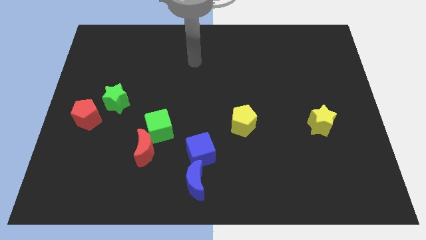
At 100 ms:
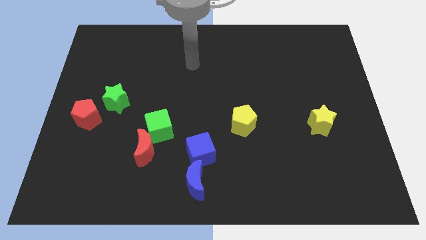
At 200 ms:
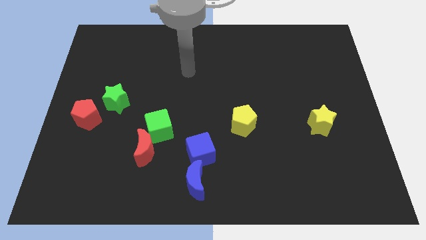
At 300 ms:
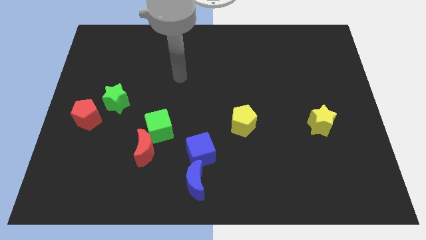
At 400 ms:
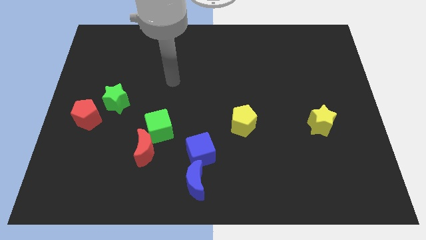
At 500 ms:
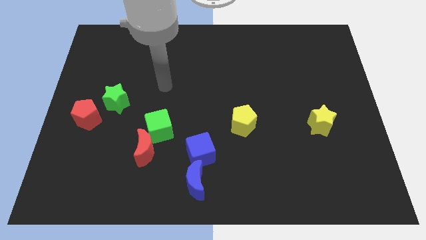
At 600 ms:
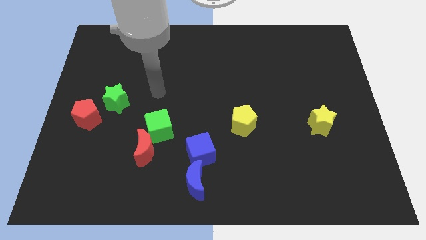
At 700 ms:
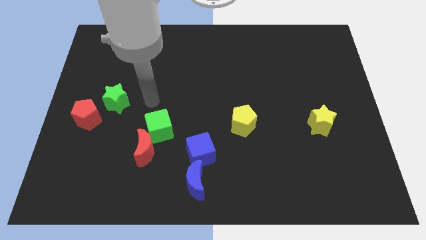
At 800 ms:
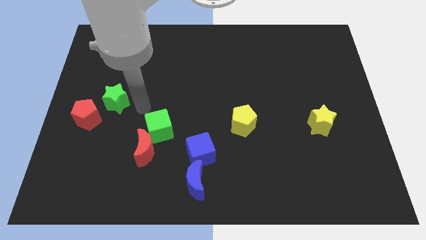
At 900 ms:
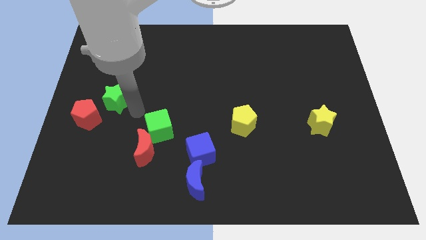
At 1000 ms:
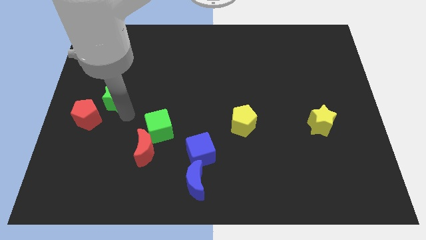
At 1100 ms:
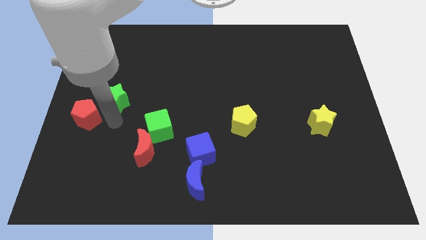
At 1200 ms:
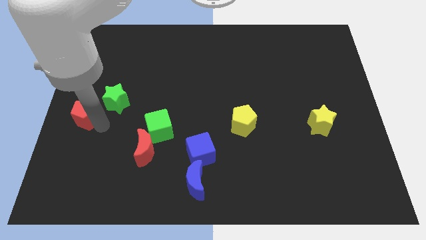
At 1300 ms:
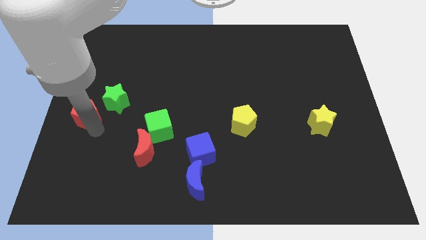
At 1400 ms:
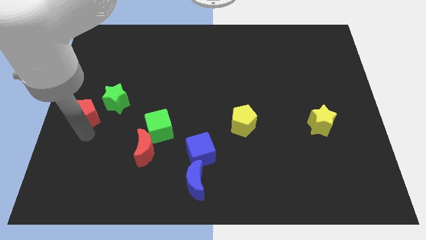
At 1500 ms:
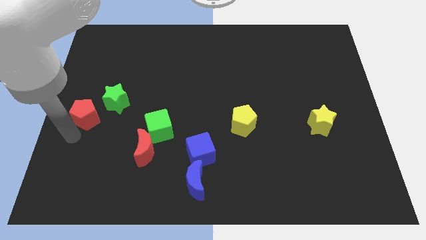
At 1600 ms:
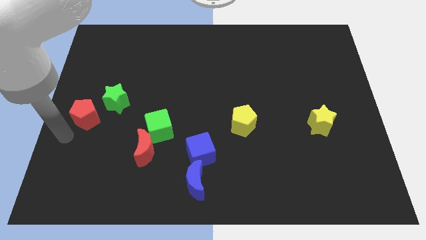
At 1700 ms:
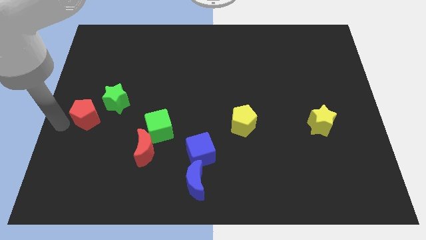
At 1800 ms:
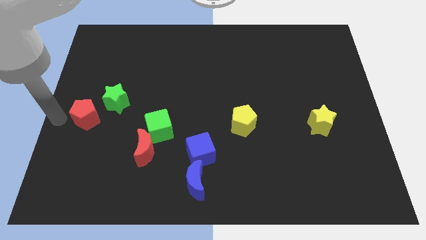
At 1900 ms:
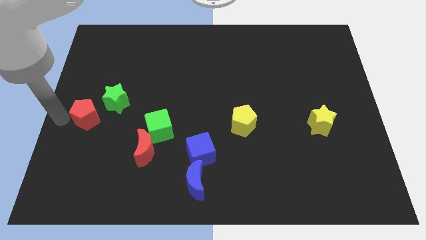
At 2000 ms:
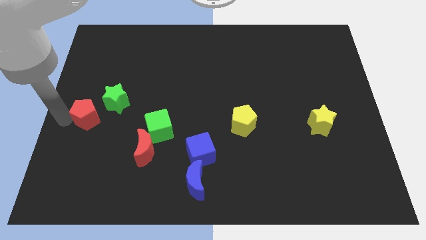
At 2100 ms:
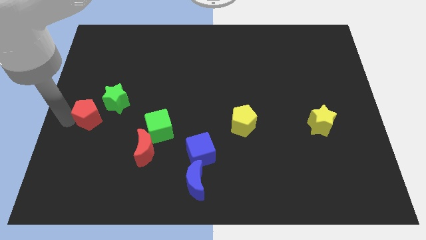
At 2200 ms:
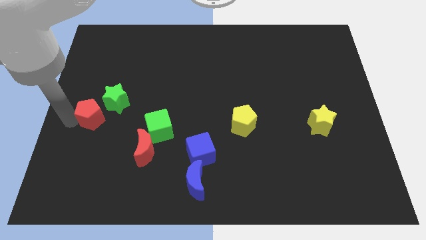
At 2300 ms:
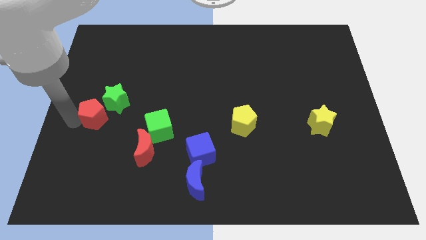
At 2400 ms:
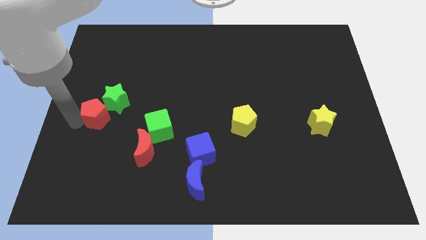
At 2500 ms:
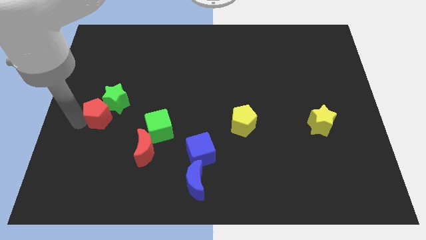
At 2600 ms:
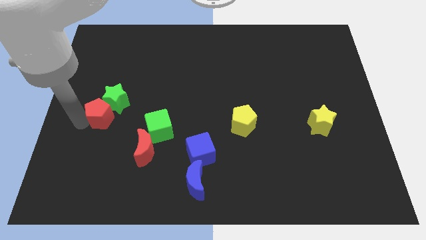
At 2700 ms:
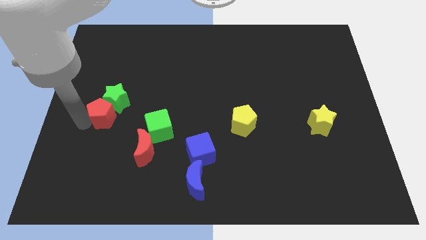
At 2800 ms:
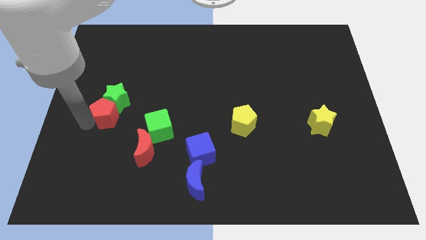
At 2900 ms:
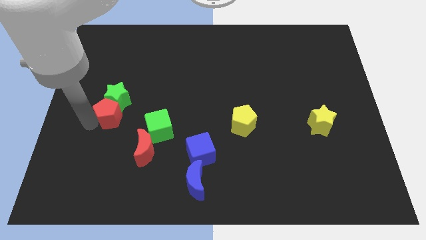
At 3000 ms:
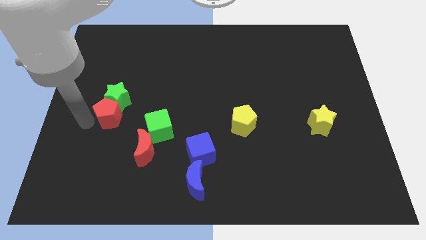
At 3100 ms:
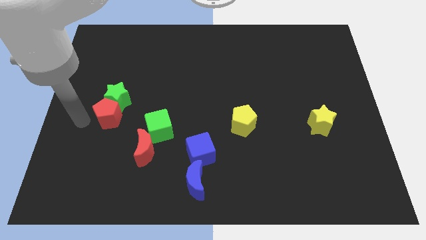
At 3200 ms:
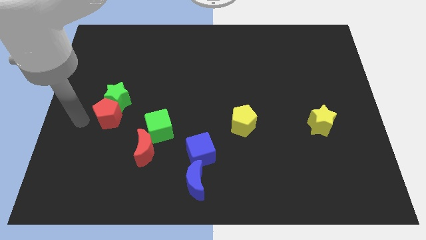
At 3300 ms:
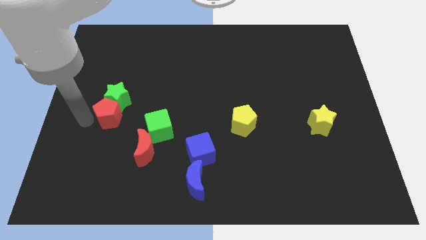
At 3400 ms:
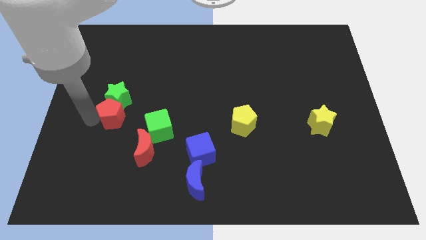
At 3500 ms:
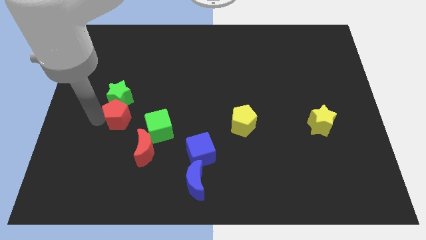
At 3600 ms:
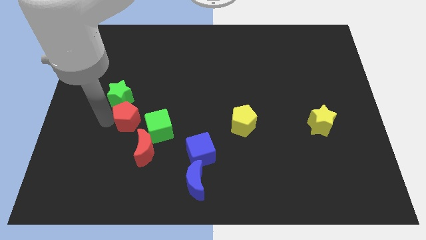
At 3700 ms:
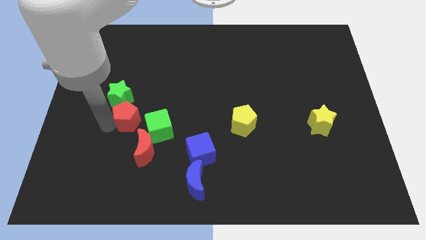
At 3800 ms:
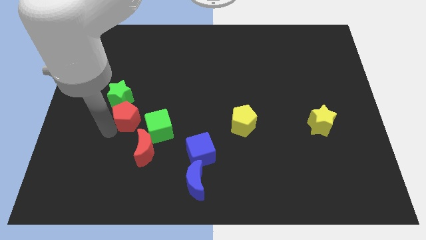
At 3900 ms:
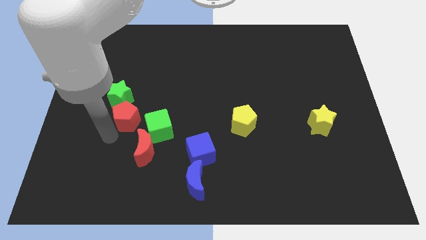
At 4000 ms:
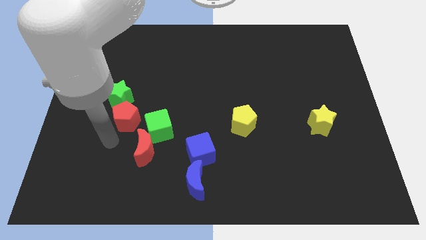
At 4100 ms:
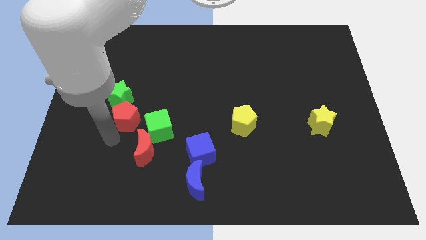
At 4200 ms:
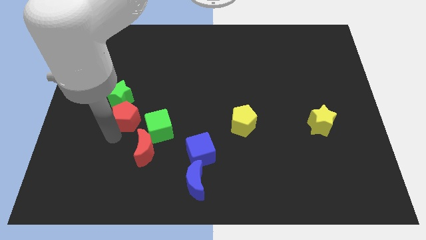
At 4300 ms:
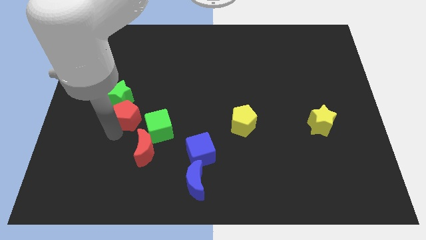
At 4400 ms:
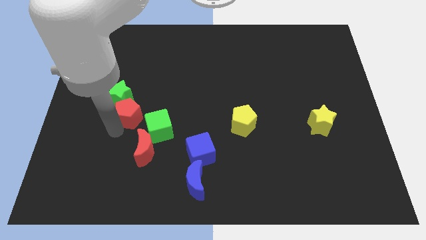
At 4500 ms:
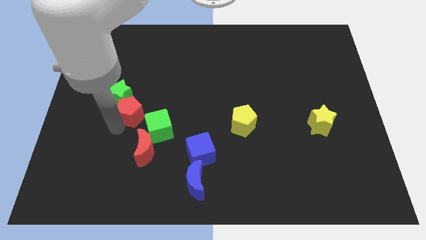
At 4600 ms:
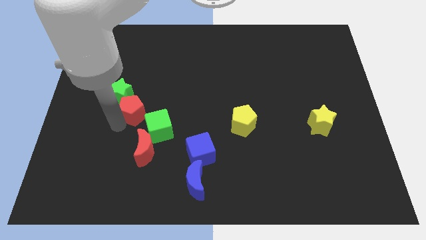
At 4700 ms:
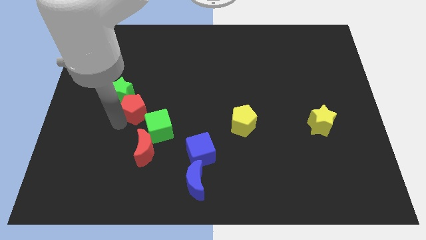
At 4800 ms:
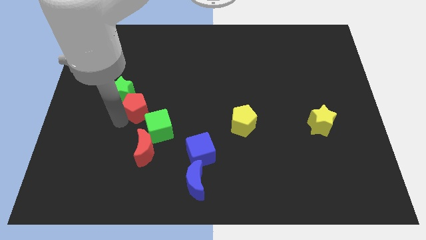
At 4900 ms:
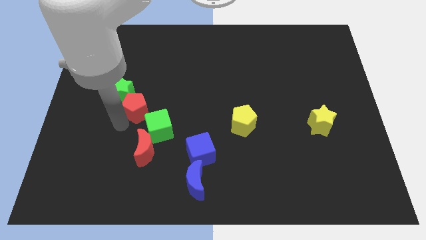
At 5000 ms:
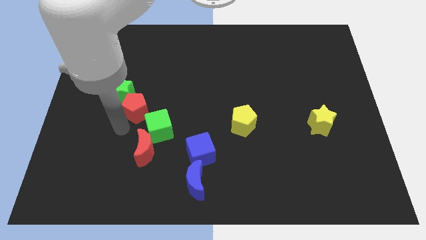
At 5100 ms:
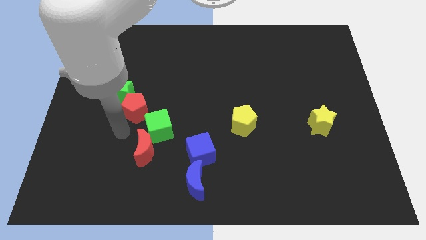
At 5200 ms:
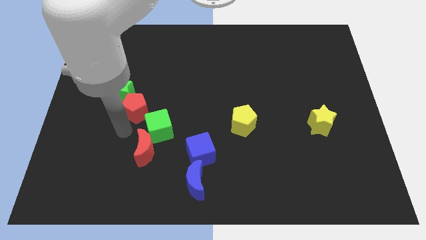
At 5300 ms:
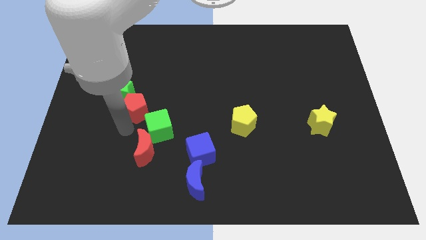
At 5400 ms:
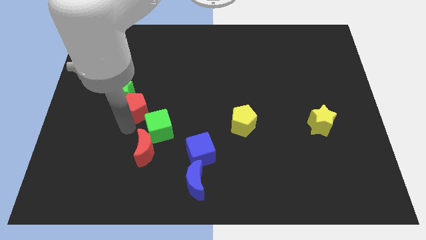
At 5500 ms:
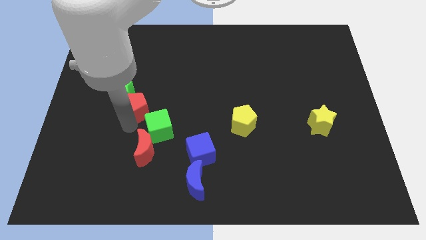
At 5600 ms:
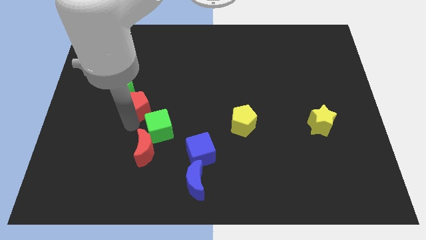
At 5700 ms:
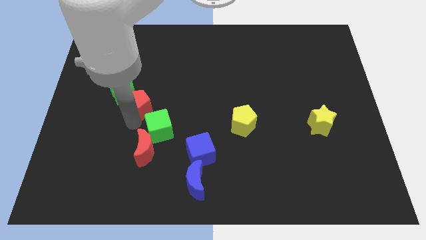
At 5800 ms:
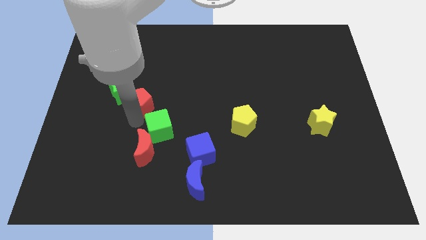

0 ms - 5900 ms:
move the red pentagon above the green cube
